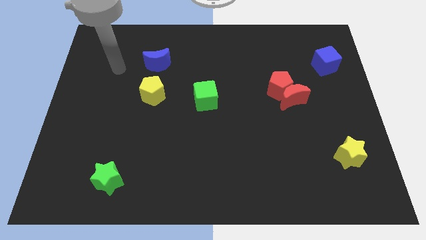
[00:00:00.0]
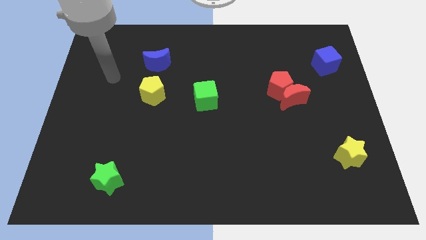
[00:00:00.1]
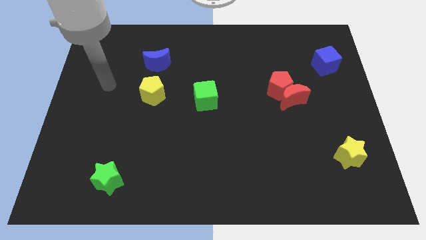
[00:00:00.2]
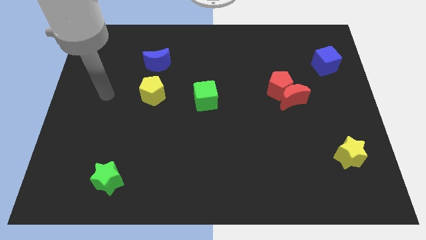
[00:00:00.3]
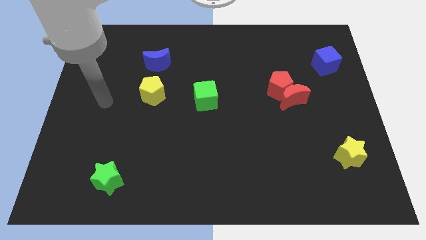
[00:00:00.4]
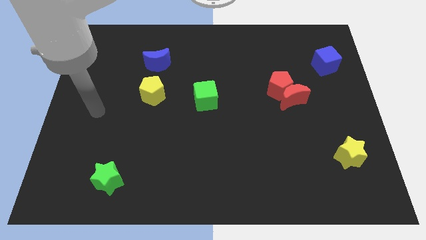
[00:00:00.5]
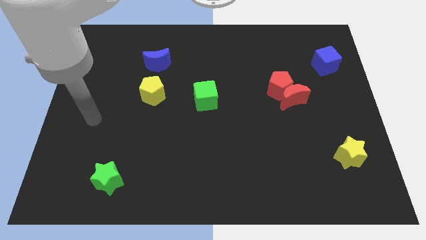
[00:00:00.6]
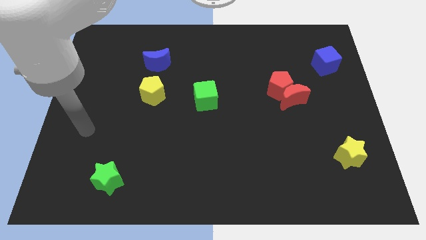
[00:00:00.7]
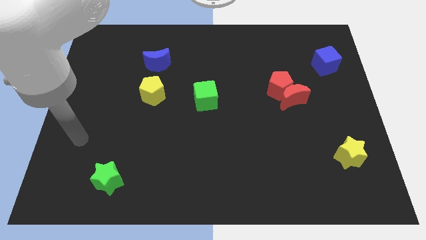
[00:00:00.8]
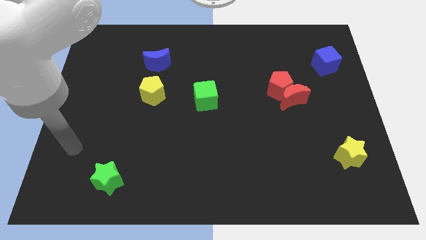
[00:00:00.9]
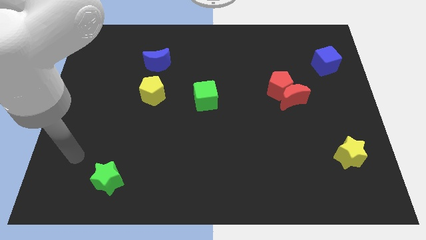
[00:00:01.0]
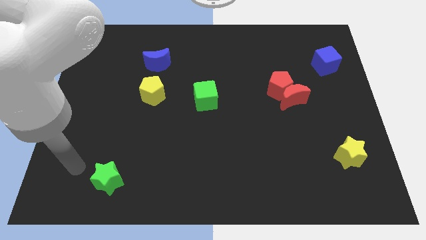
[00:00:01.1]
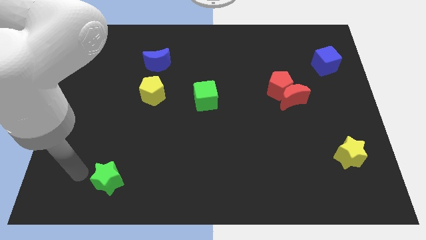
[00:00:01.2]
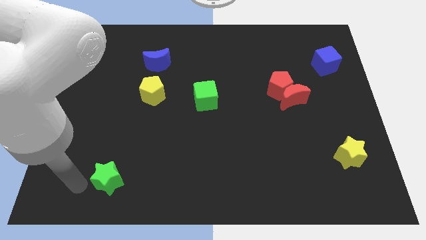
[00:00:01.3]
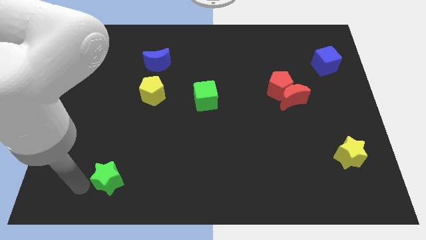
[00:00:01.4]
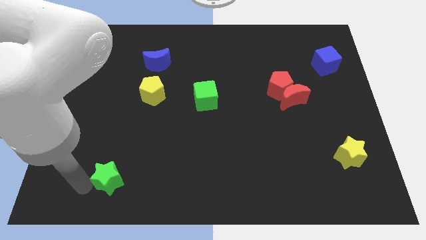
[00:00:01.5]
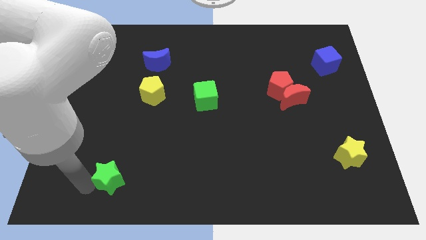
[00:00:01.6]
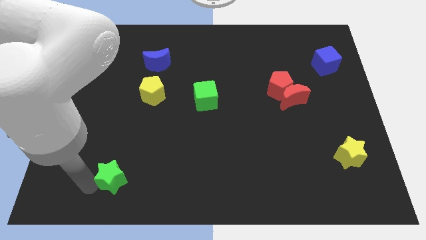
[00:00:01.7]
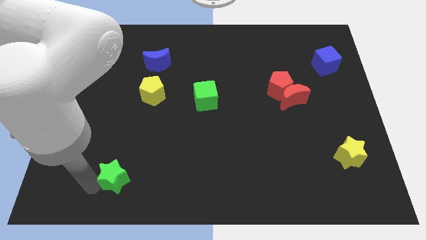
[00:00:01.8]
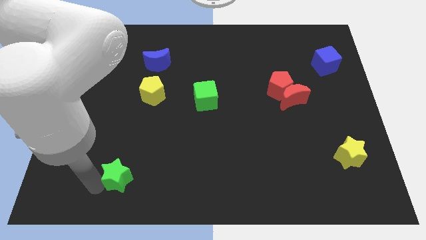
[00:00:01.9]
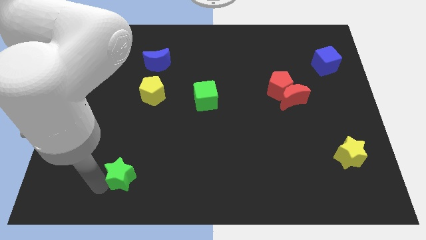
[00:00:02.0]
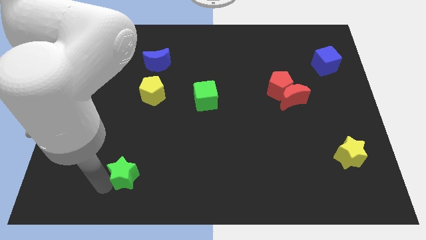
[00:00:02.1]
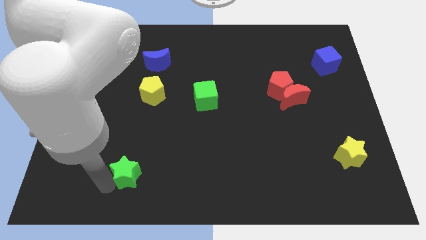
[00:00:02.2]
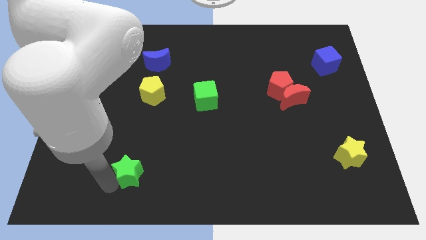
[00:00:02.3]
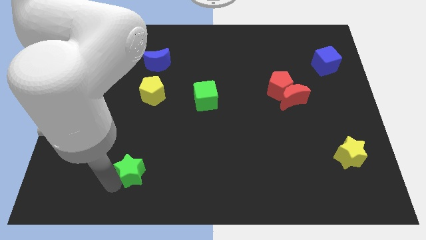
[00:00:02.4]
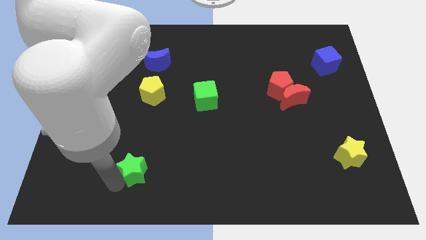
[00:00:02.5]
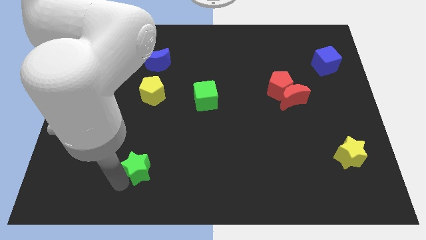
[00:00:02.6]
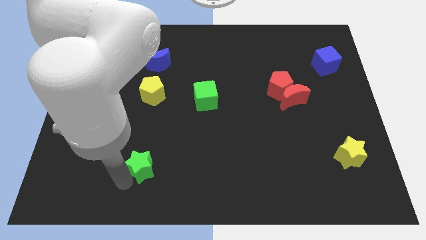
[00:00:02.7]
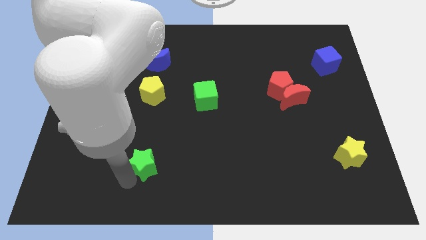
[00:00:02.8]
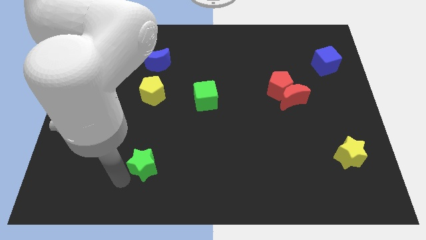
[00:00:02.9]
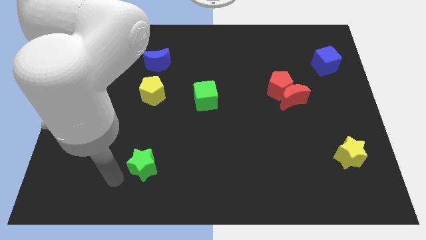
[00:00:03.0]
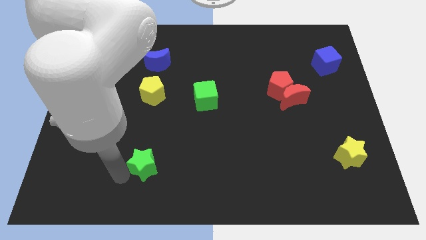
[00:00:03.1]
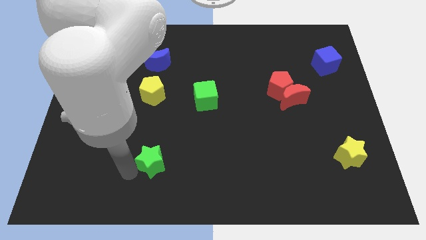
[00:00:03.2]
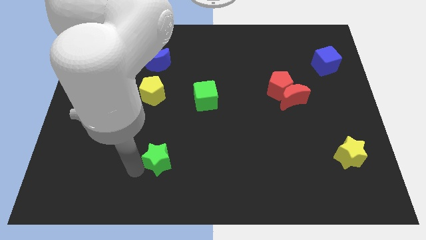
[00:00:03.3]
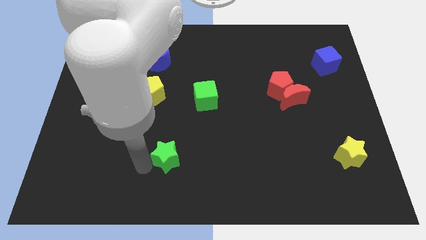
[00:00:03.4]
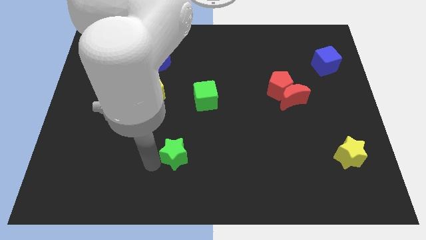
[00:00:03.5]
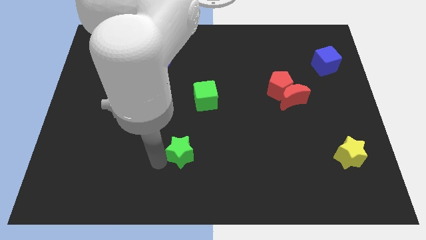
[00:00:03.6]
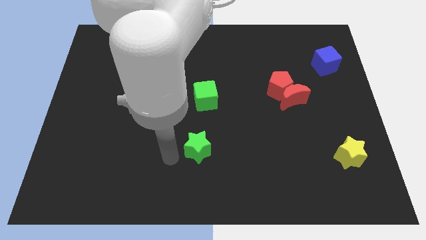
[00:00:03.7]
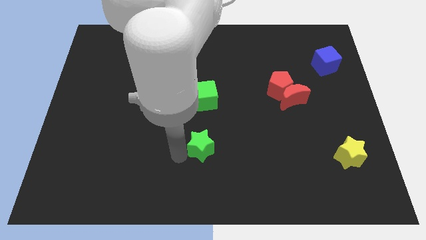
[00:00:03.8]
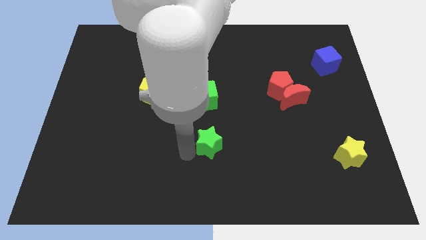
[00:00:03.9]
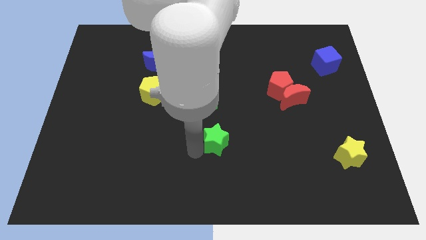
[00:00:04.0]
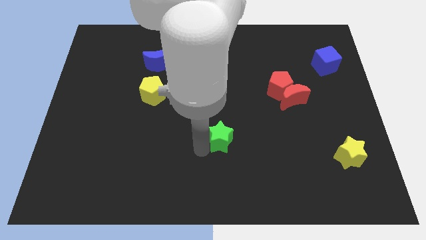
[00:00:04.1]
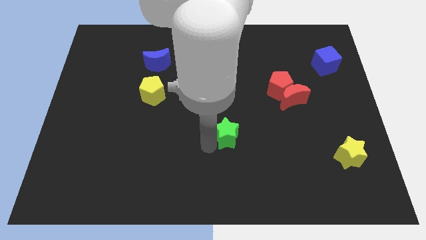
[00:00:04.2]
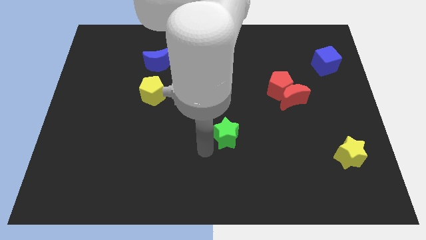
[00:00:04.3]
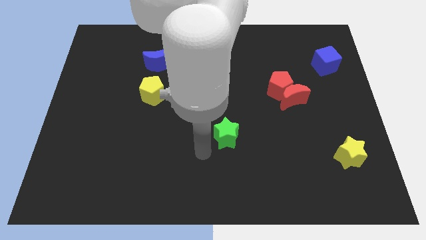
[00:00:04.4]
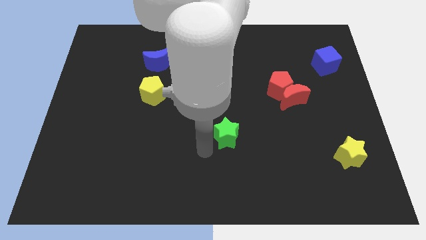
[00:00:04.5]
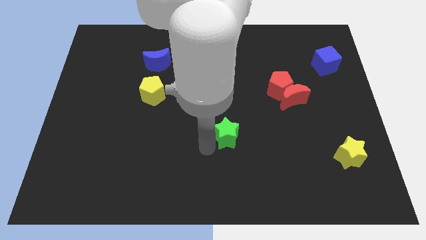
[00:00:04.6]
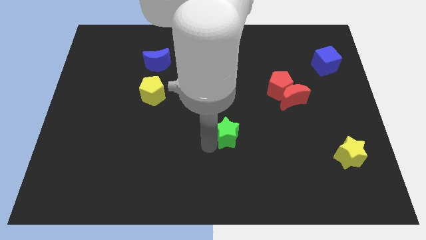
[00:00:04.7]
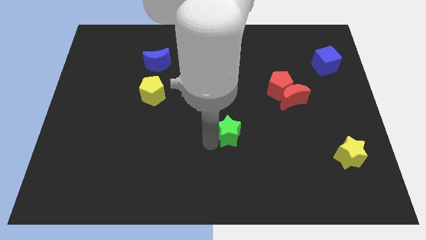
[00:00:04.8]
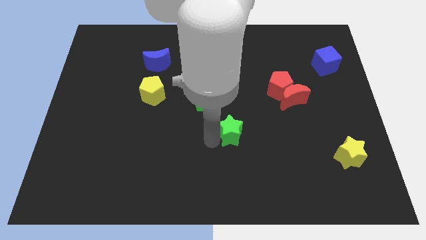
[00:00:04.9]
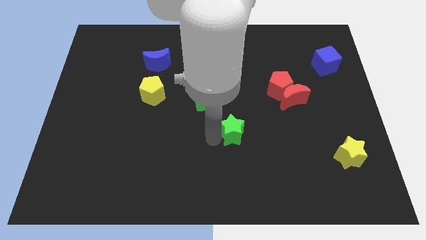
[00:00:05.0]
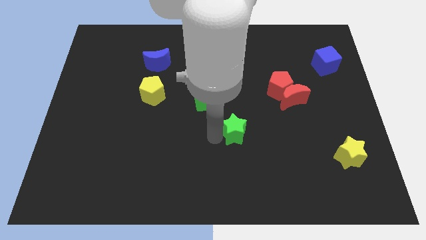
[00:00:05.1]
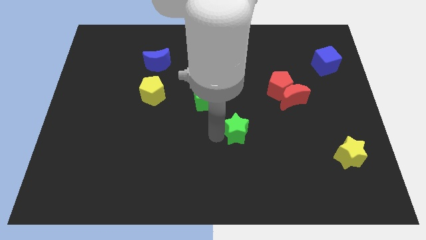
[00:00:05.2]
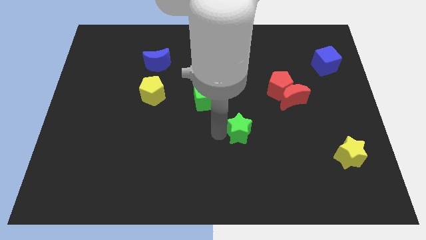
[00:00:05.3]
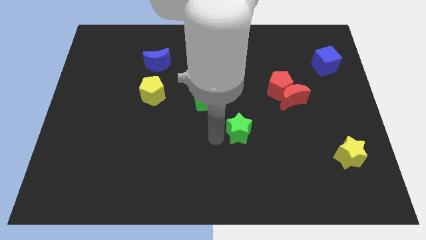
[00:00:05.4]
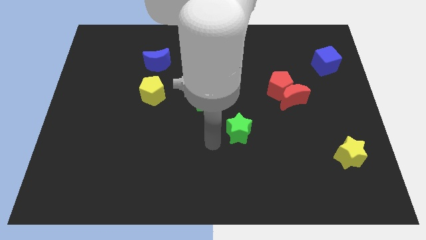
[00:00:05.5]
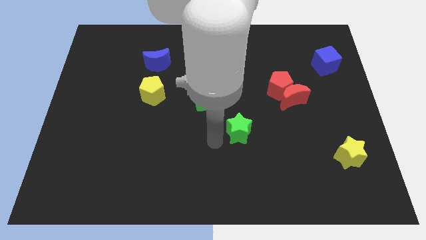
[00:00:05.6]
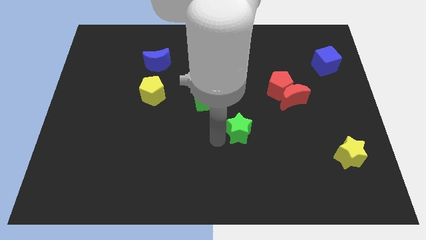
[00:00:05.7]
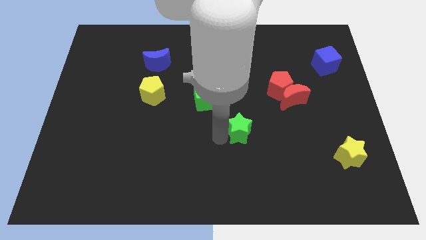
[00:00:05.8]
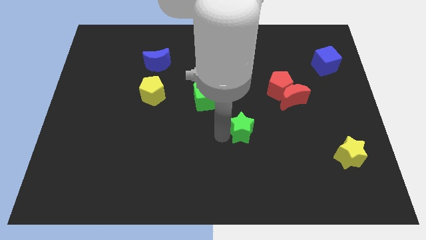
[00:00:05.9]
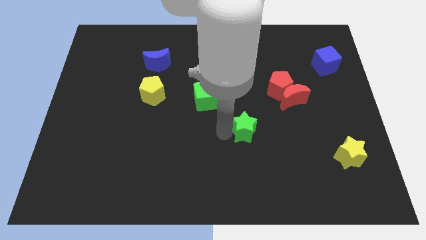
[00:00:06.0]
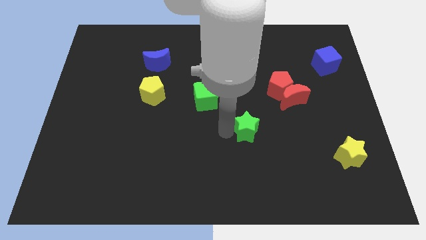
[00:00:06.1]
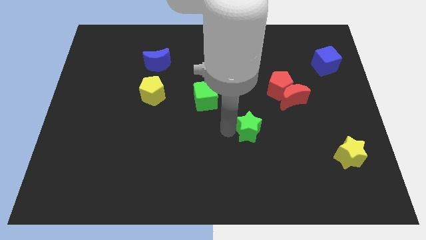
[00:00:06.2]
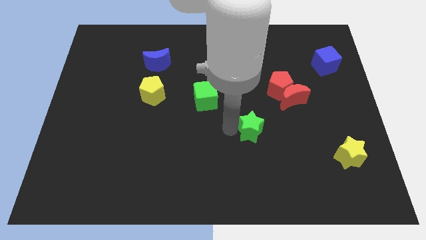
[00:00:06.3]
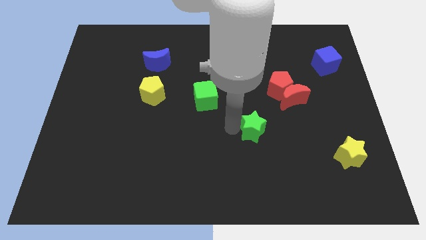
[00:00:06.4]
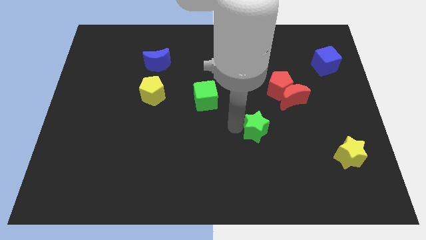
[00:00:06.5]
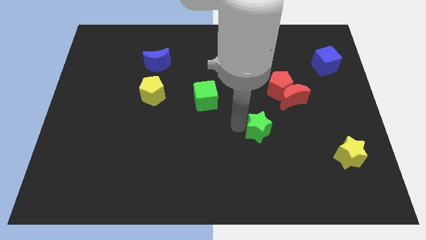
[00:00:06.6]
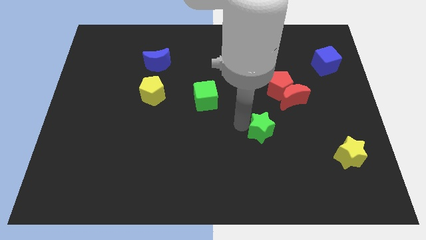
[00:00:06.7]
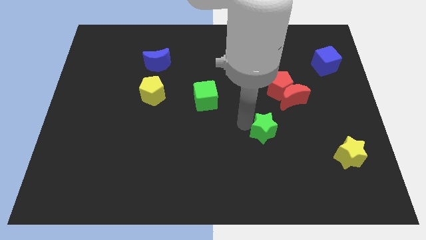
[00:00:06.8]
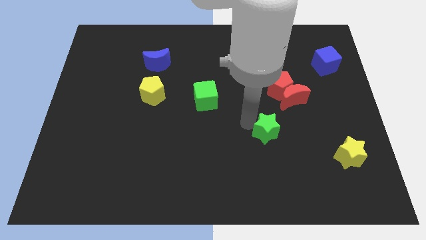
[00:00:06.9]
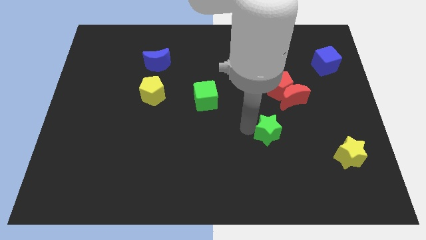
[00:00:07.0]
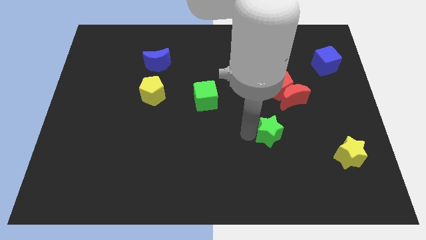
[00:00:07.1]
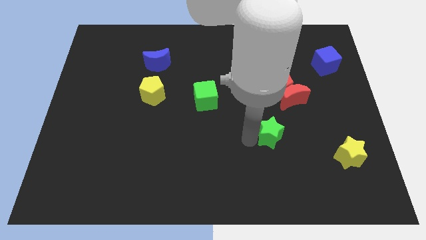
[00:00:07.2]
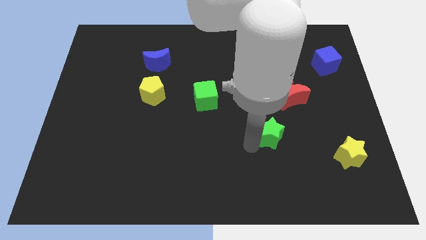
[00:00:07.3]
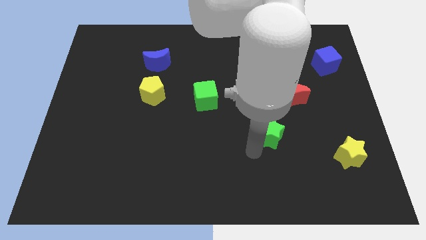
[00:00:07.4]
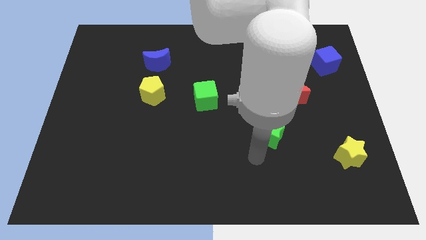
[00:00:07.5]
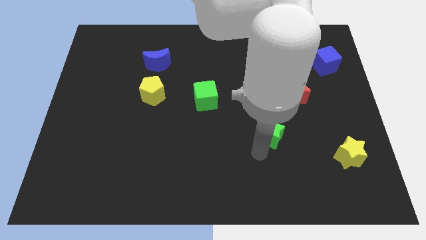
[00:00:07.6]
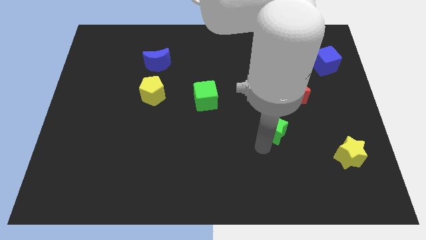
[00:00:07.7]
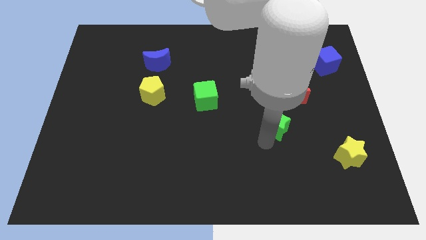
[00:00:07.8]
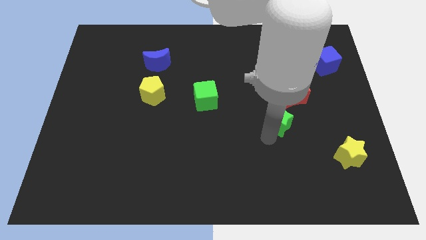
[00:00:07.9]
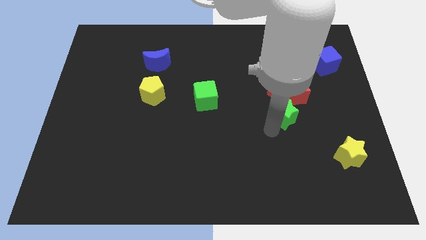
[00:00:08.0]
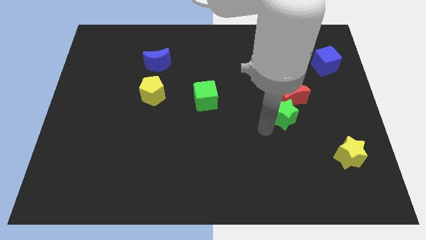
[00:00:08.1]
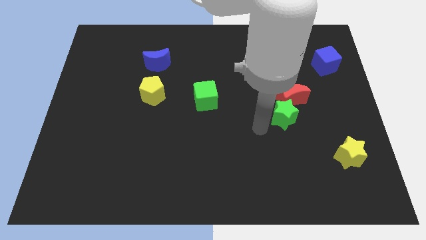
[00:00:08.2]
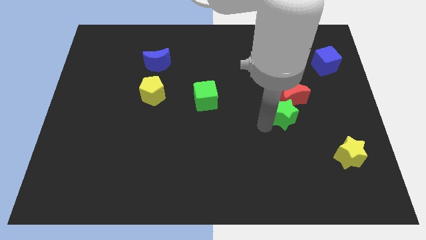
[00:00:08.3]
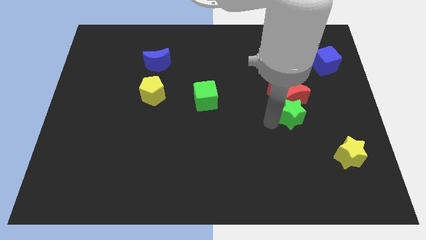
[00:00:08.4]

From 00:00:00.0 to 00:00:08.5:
move the green star to the bottom right side of the red pentagon
